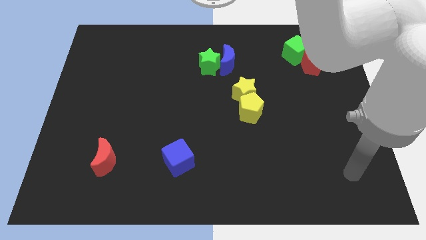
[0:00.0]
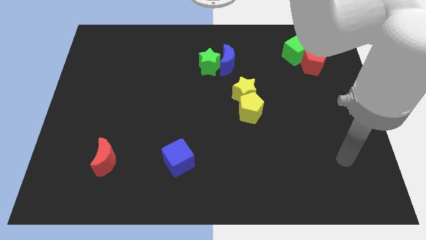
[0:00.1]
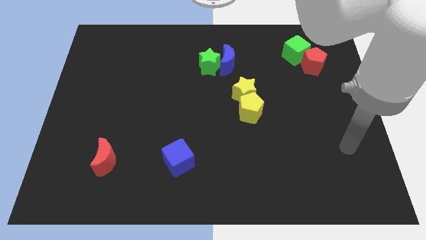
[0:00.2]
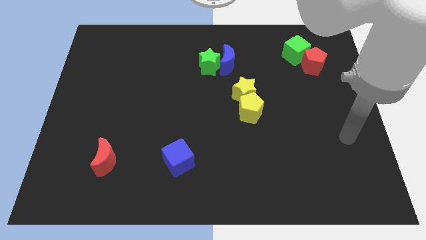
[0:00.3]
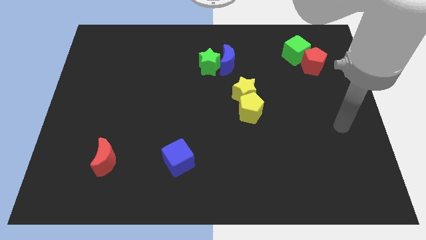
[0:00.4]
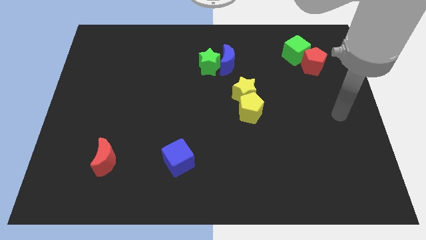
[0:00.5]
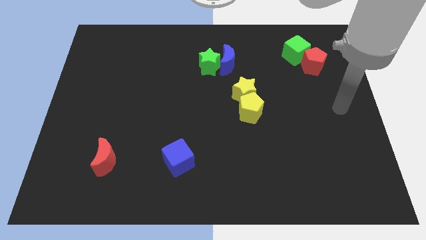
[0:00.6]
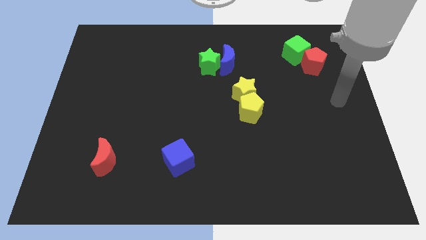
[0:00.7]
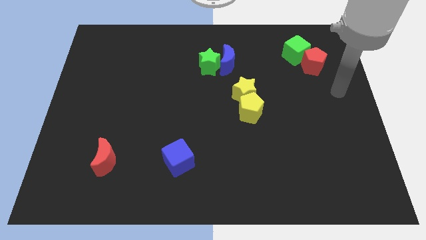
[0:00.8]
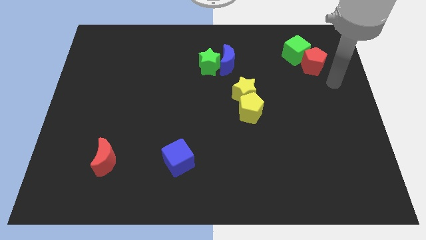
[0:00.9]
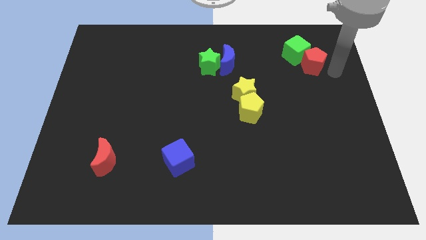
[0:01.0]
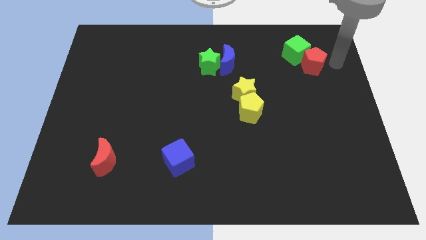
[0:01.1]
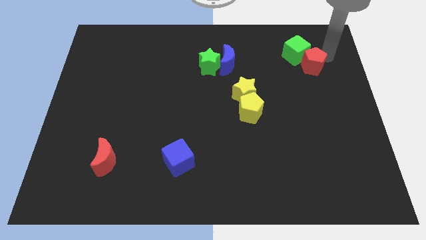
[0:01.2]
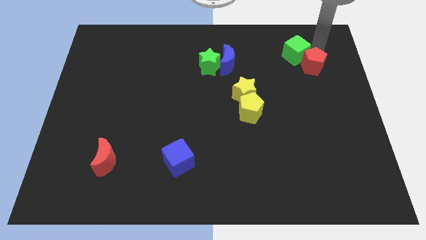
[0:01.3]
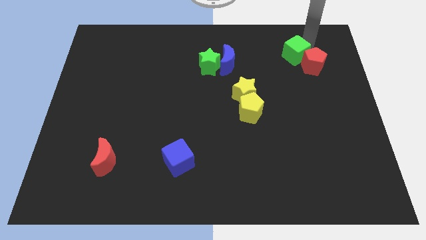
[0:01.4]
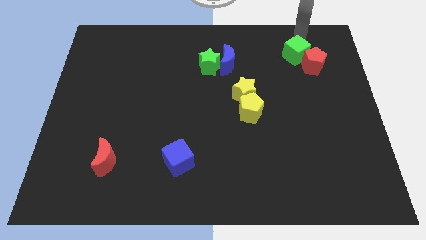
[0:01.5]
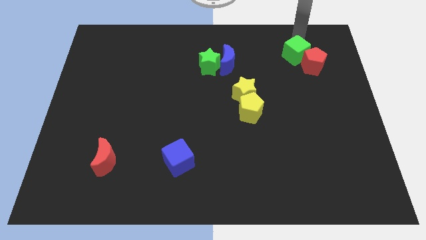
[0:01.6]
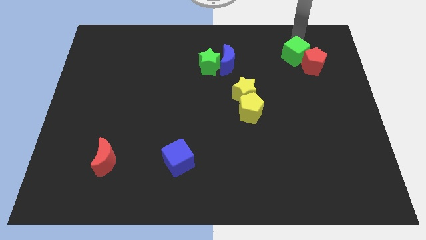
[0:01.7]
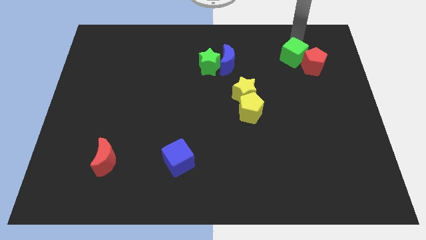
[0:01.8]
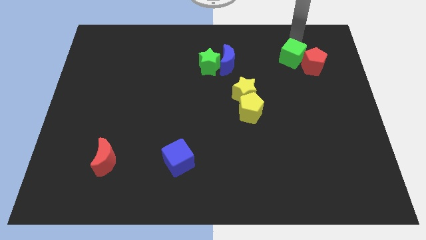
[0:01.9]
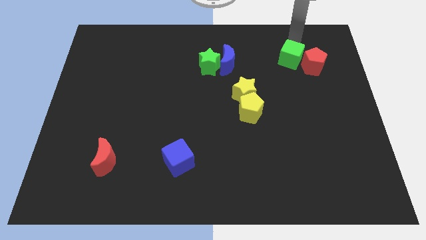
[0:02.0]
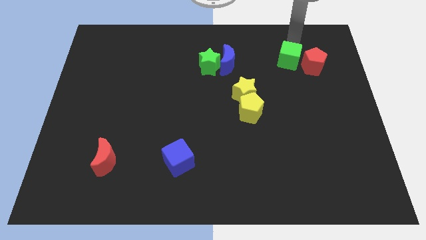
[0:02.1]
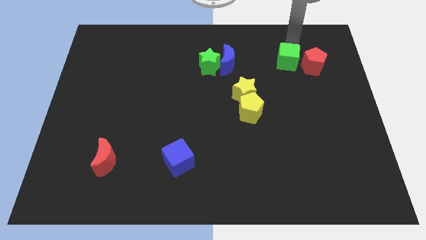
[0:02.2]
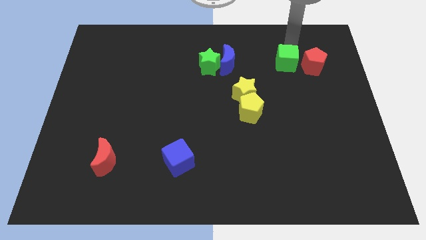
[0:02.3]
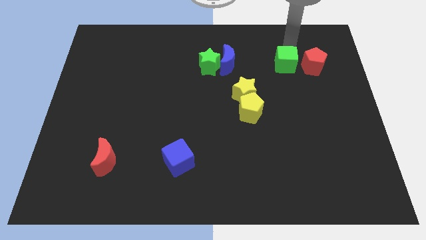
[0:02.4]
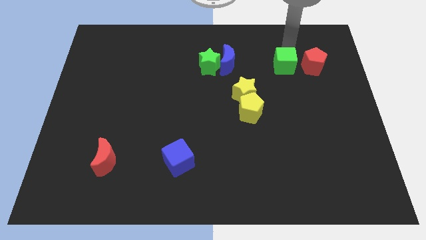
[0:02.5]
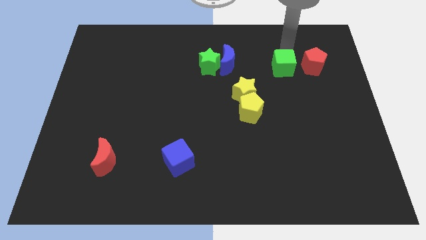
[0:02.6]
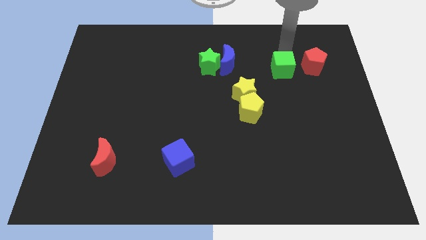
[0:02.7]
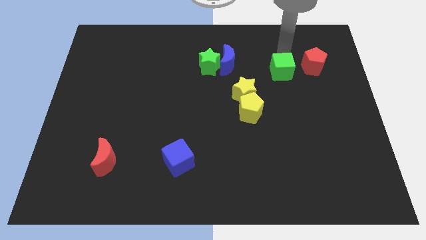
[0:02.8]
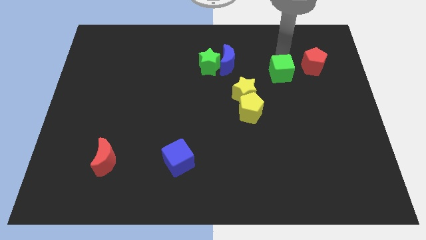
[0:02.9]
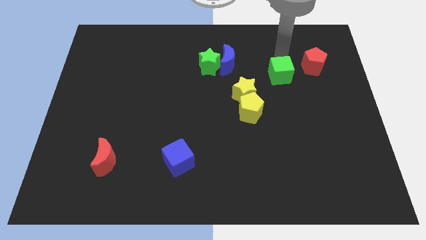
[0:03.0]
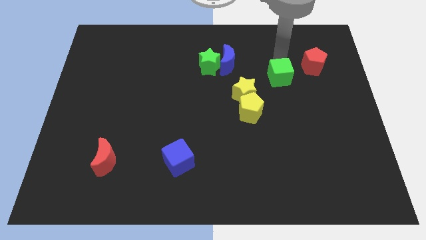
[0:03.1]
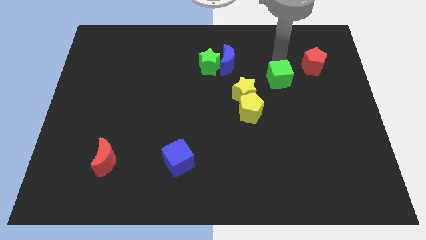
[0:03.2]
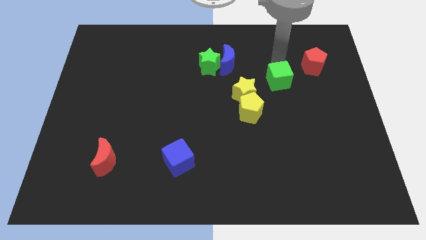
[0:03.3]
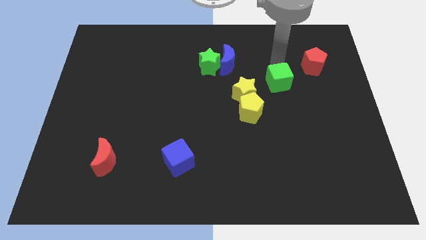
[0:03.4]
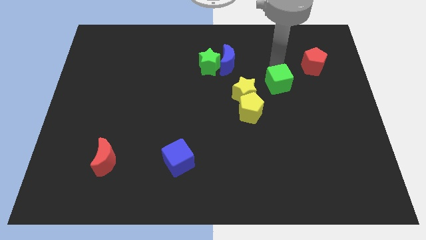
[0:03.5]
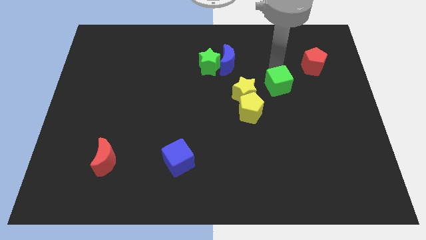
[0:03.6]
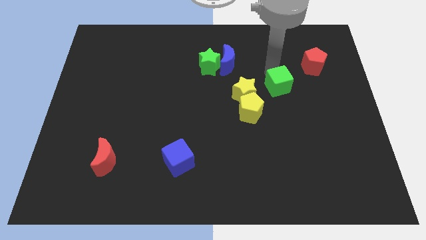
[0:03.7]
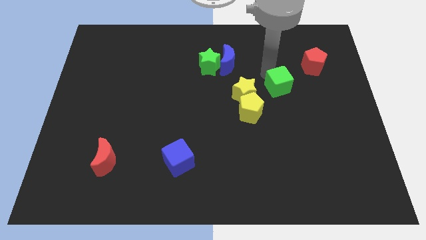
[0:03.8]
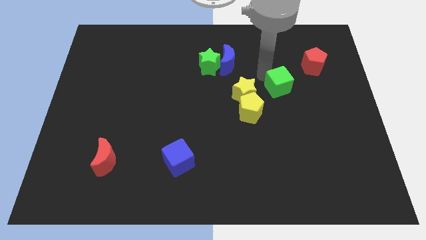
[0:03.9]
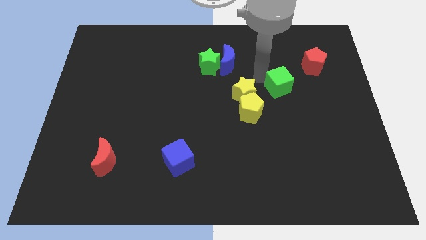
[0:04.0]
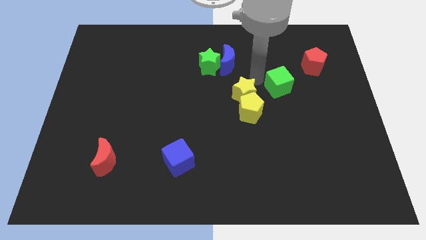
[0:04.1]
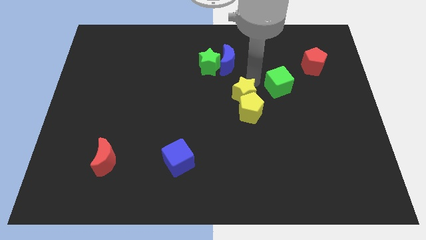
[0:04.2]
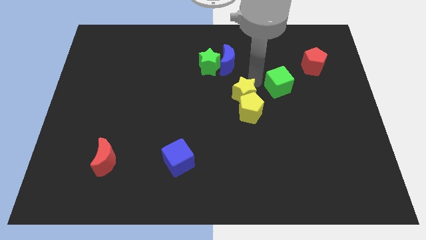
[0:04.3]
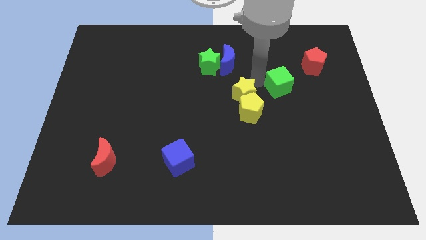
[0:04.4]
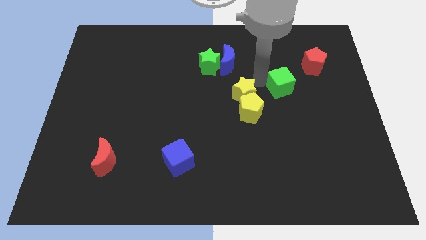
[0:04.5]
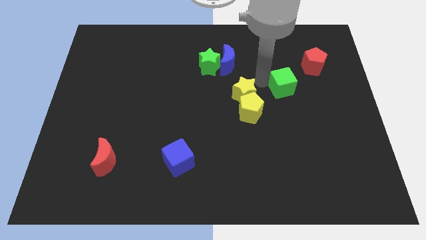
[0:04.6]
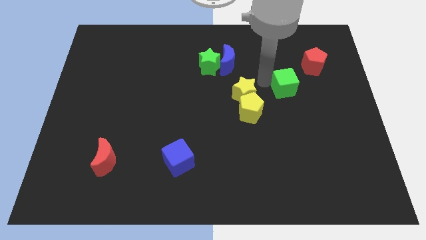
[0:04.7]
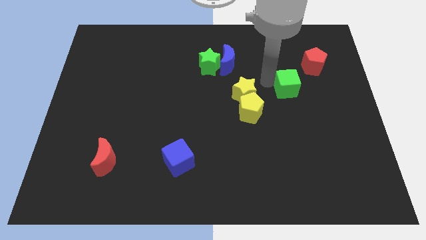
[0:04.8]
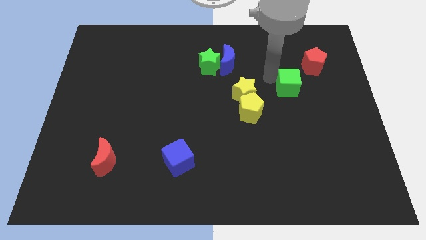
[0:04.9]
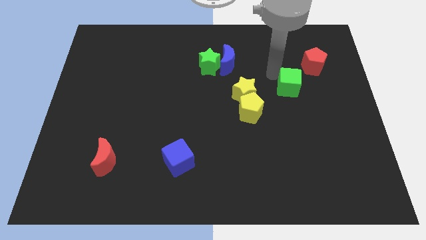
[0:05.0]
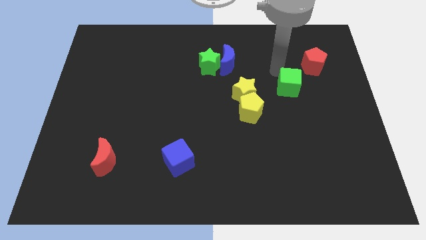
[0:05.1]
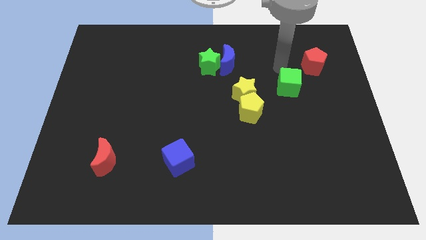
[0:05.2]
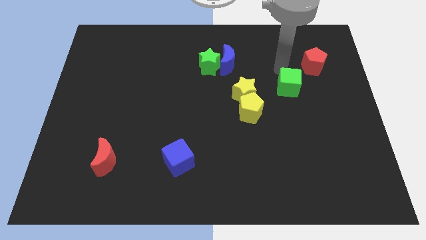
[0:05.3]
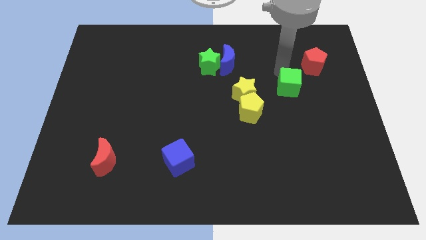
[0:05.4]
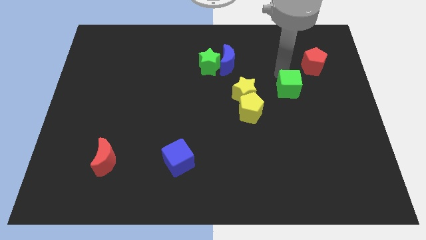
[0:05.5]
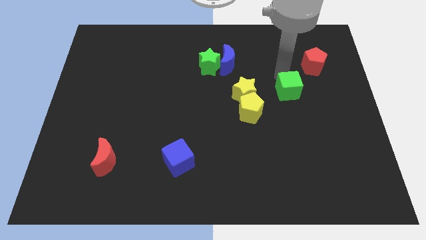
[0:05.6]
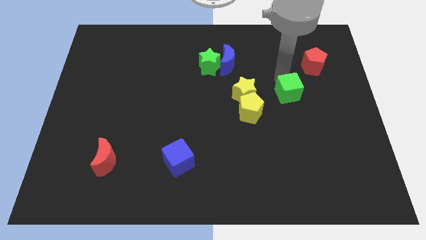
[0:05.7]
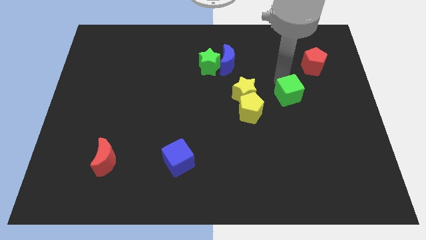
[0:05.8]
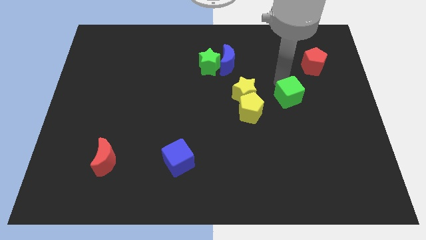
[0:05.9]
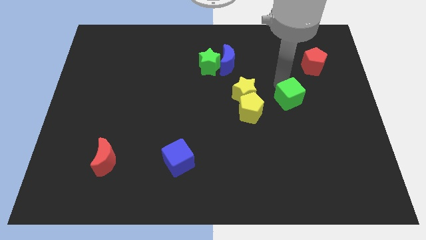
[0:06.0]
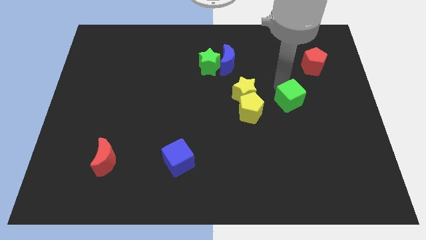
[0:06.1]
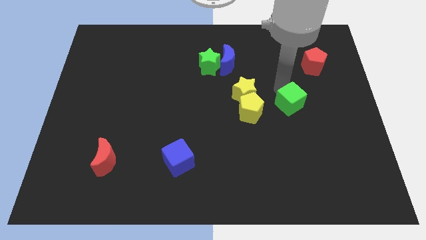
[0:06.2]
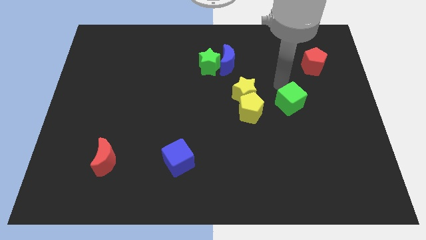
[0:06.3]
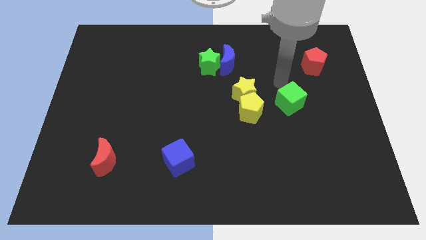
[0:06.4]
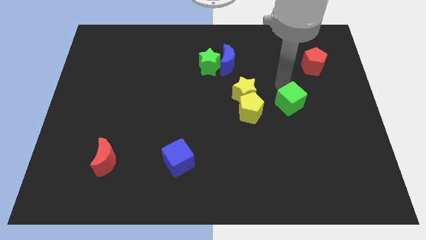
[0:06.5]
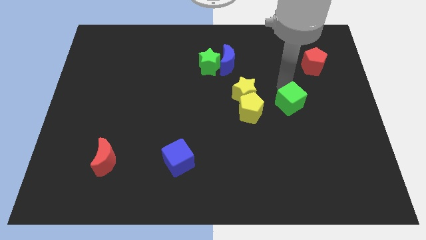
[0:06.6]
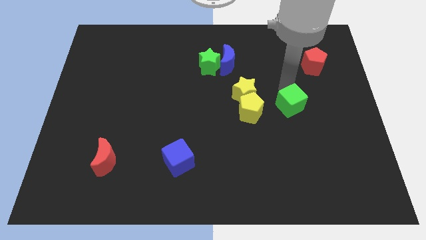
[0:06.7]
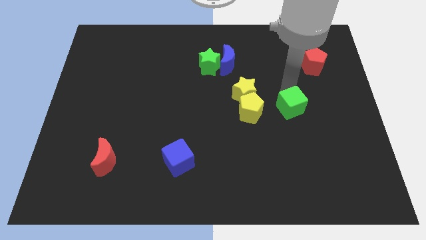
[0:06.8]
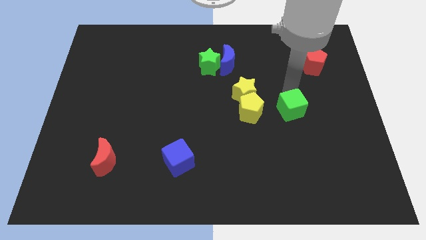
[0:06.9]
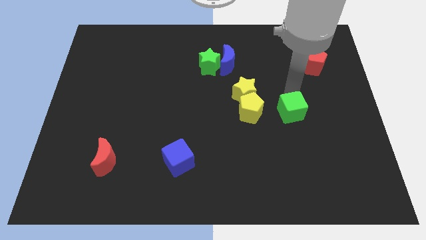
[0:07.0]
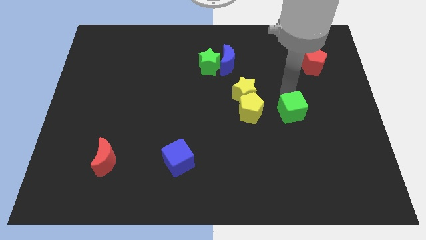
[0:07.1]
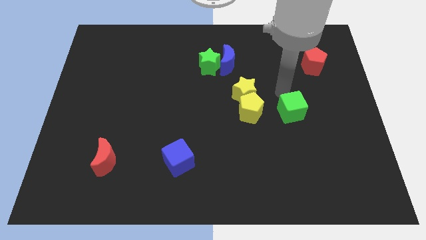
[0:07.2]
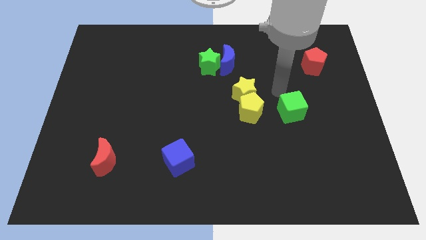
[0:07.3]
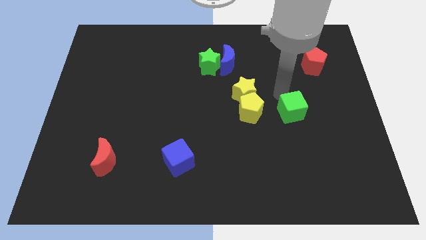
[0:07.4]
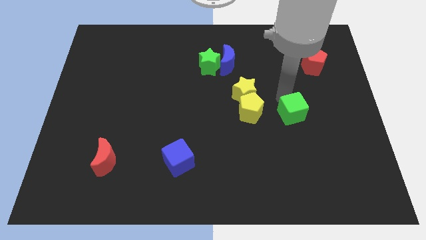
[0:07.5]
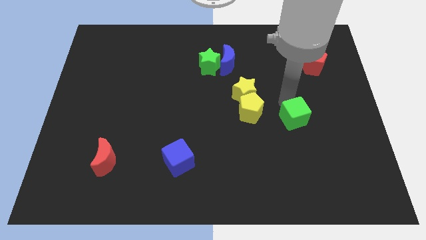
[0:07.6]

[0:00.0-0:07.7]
move the green cube downwards

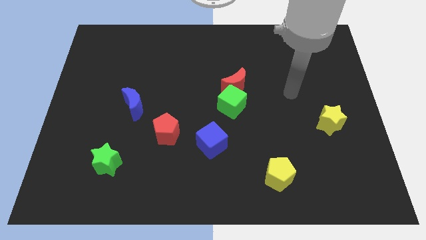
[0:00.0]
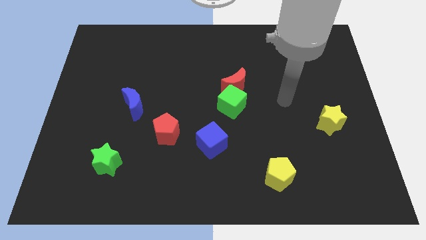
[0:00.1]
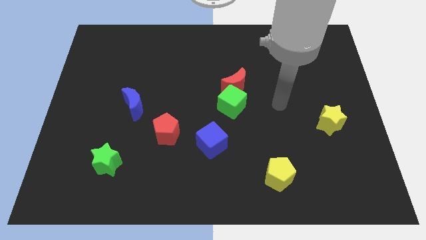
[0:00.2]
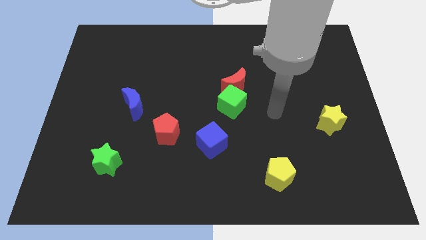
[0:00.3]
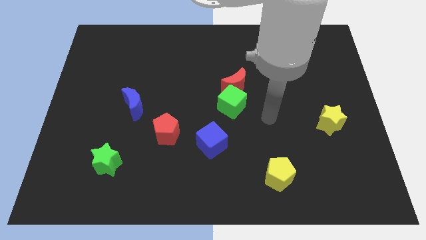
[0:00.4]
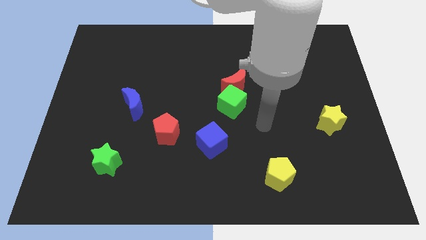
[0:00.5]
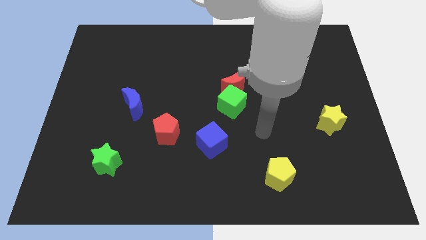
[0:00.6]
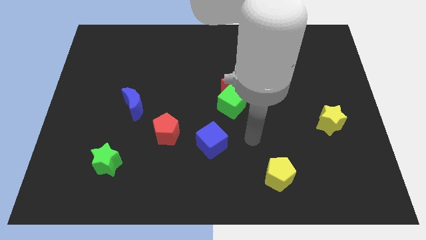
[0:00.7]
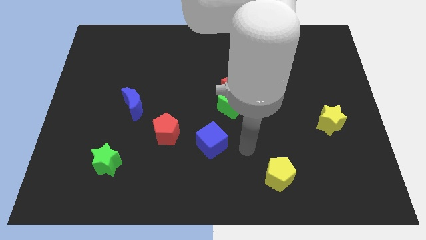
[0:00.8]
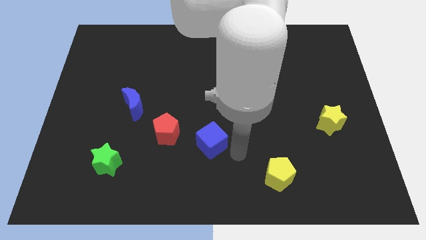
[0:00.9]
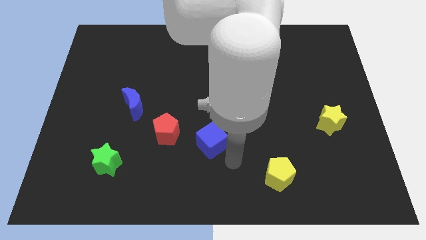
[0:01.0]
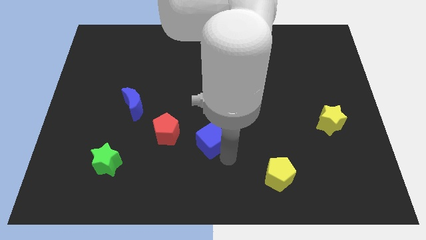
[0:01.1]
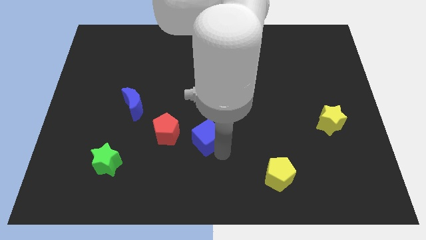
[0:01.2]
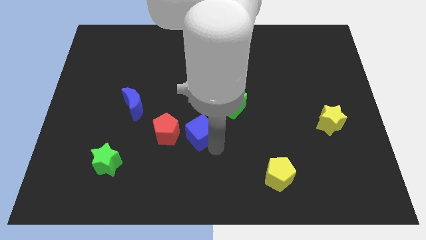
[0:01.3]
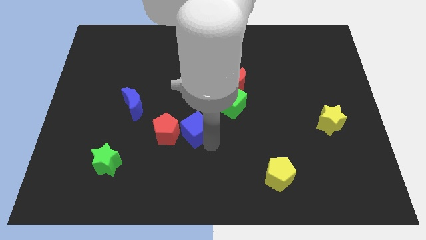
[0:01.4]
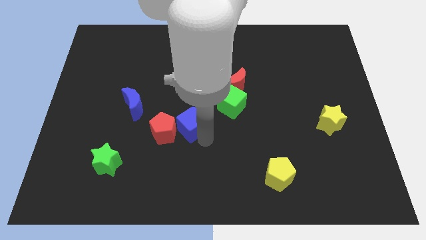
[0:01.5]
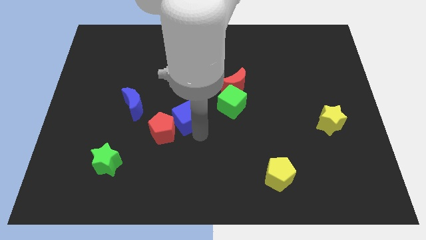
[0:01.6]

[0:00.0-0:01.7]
move the blue cube slightly up and then to the left
